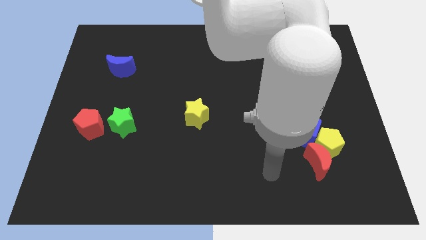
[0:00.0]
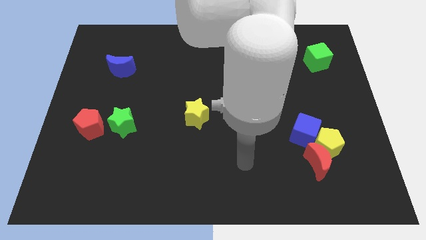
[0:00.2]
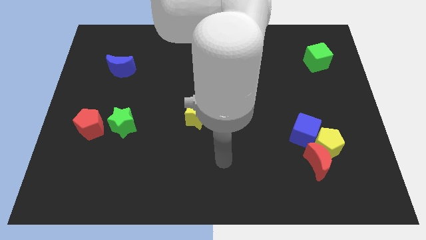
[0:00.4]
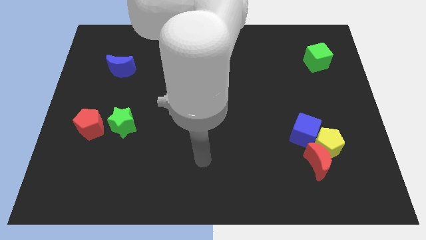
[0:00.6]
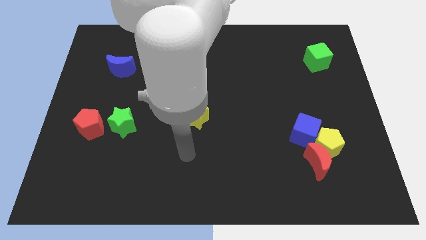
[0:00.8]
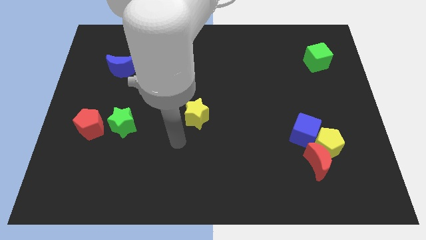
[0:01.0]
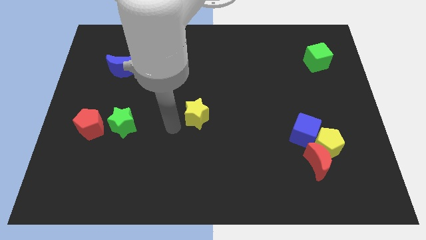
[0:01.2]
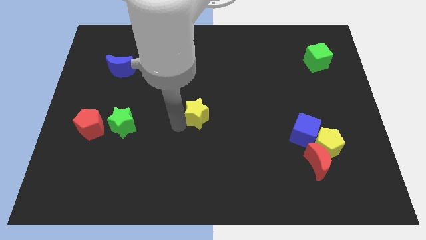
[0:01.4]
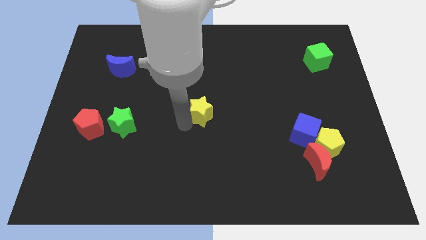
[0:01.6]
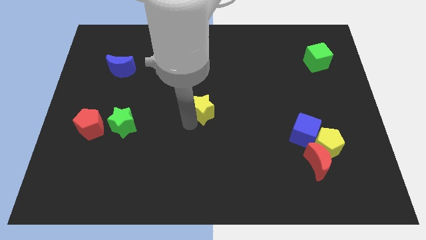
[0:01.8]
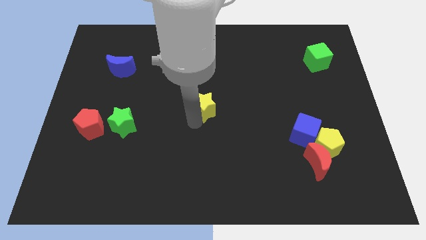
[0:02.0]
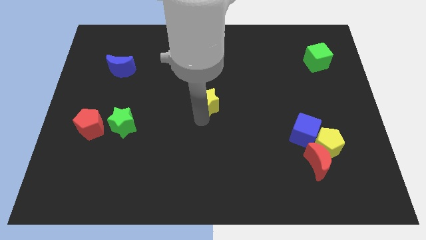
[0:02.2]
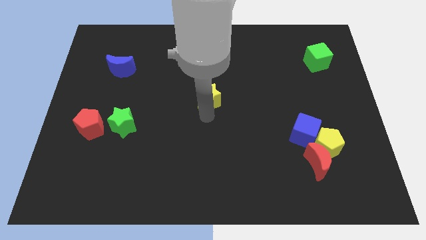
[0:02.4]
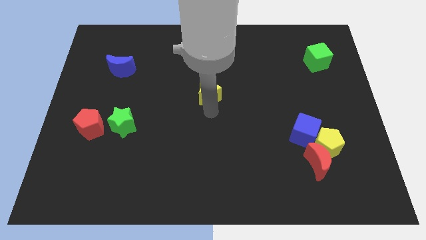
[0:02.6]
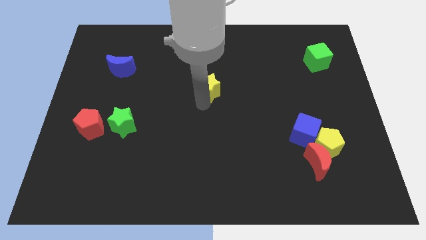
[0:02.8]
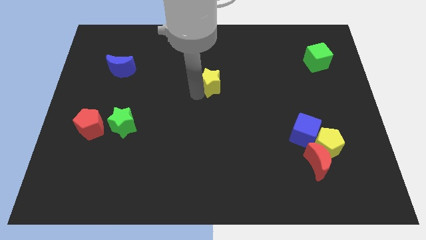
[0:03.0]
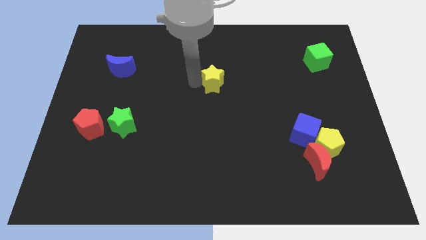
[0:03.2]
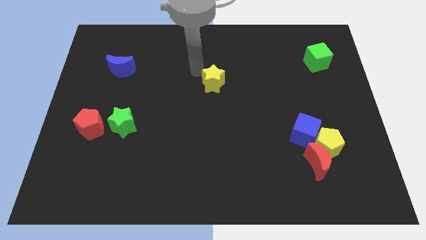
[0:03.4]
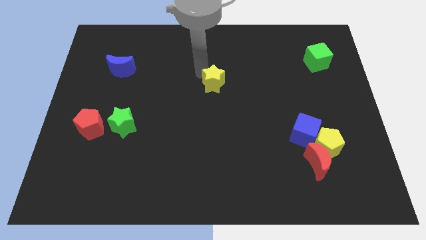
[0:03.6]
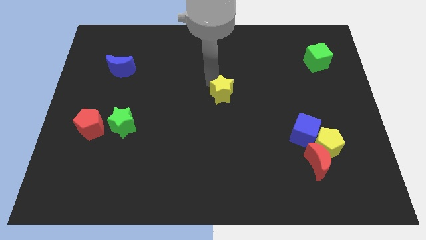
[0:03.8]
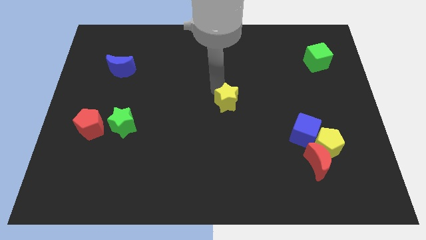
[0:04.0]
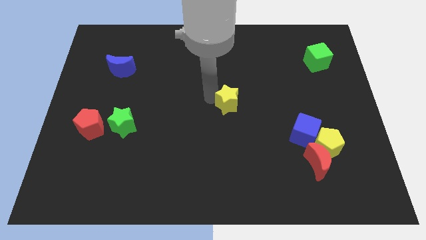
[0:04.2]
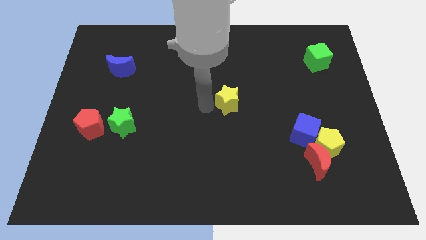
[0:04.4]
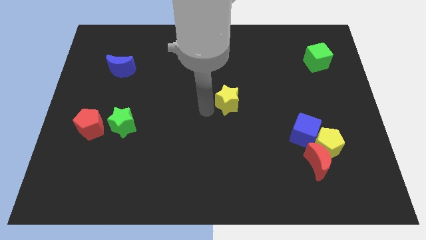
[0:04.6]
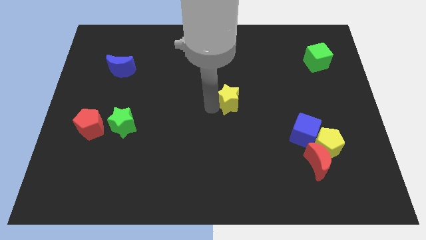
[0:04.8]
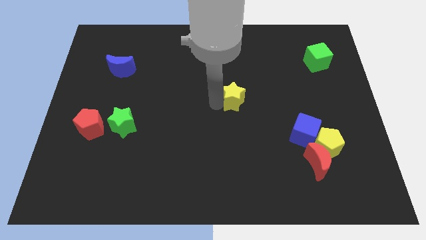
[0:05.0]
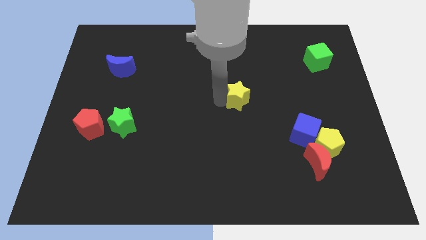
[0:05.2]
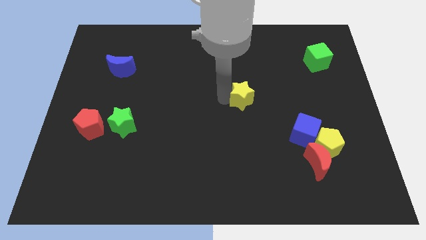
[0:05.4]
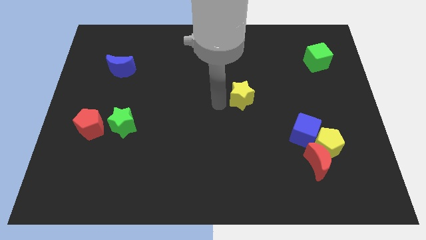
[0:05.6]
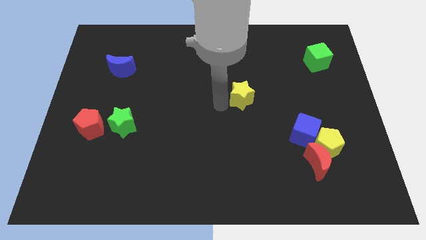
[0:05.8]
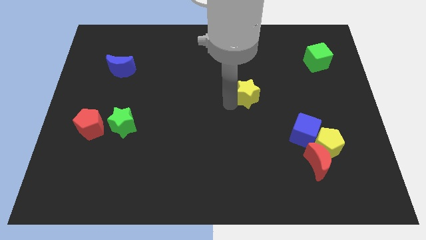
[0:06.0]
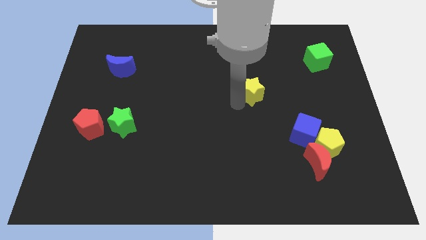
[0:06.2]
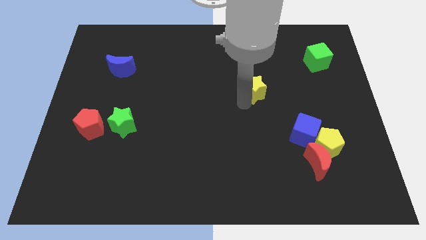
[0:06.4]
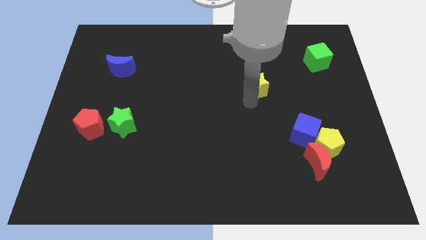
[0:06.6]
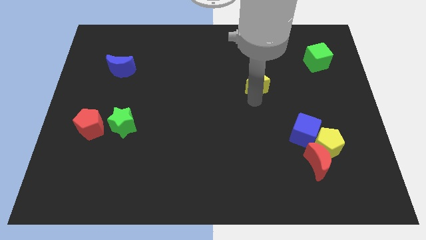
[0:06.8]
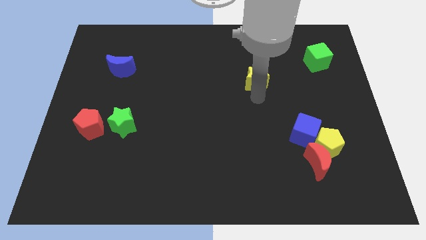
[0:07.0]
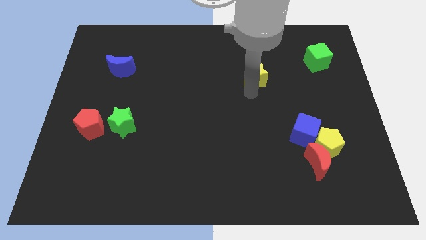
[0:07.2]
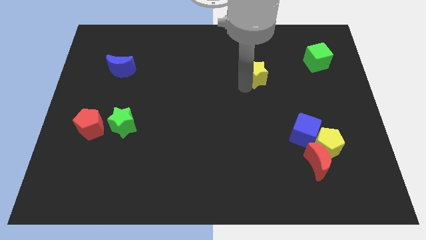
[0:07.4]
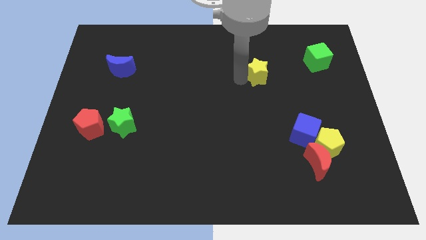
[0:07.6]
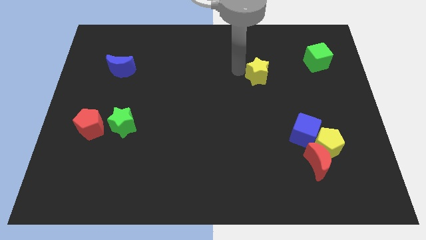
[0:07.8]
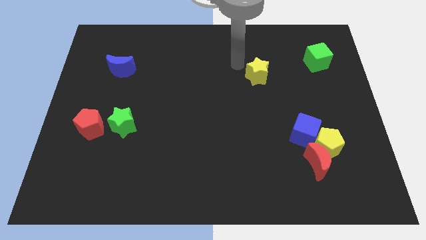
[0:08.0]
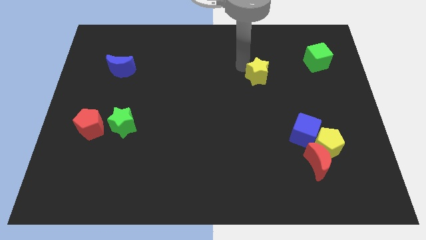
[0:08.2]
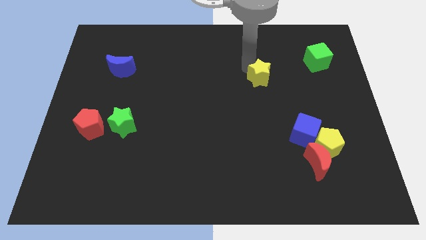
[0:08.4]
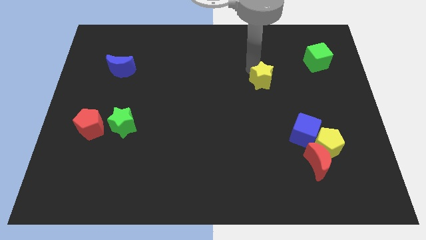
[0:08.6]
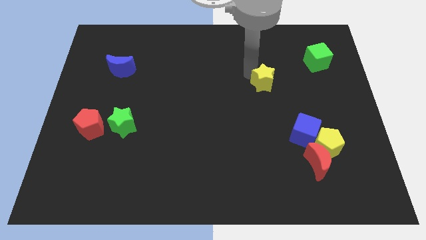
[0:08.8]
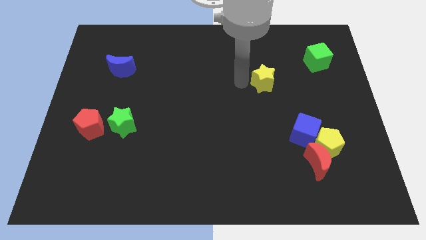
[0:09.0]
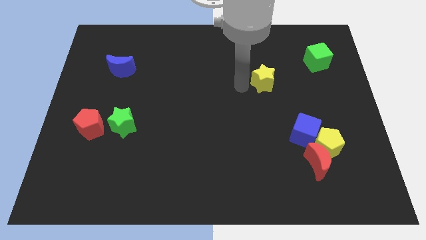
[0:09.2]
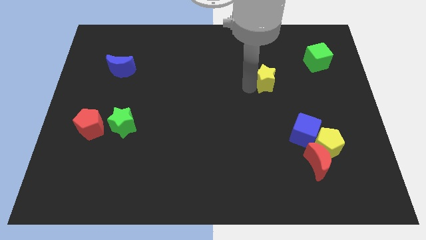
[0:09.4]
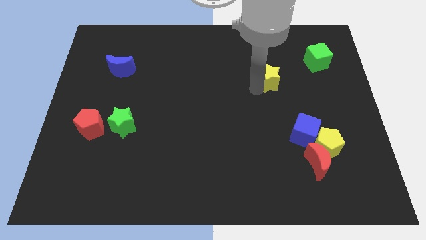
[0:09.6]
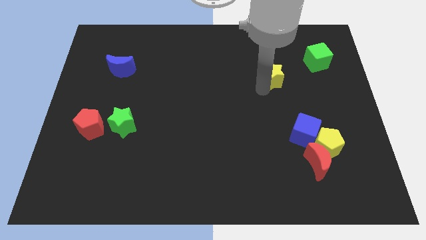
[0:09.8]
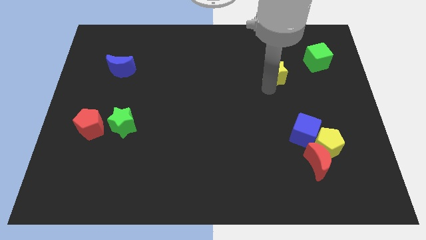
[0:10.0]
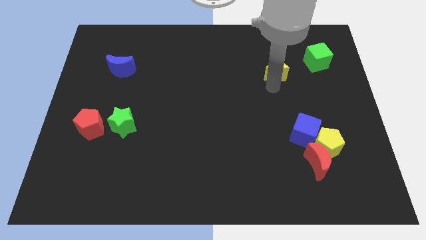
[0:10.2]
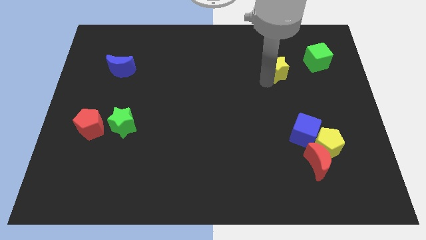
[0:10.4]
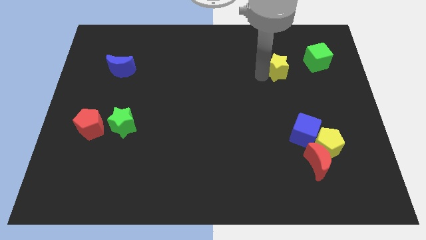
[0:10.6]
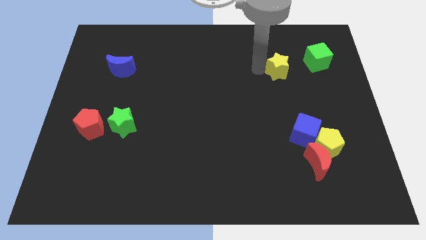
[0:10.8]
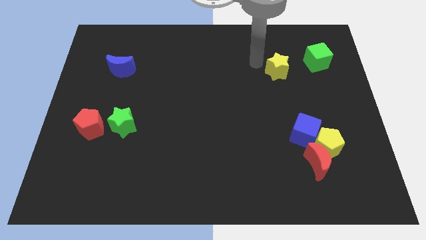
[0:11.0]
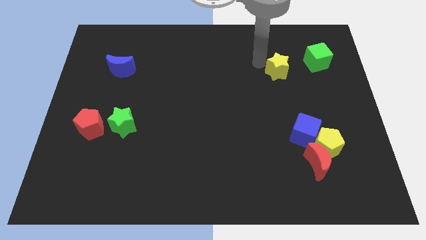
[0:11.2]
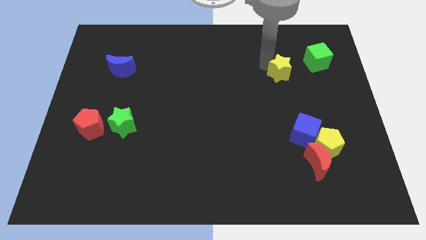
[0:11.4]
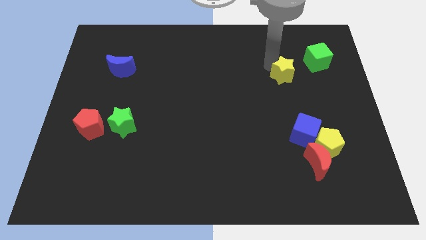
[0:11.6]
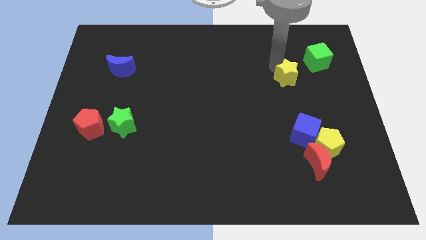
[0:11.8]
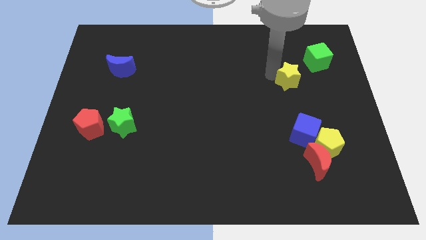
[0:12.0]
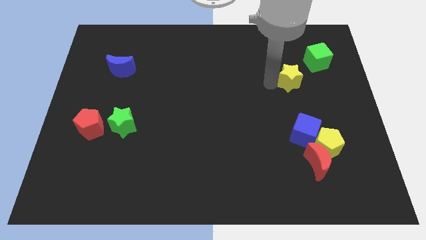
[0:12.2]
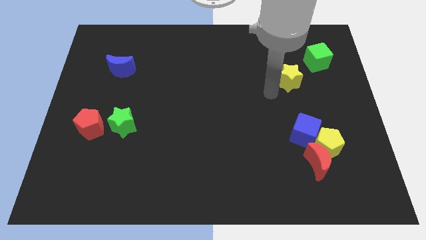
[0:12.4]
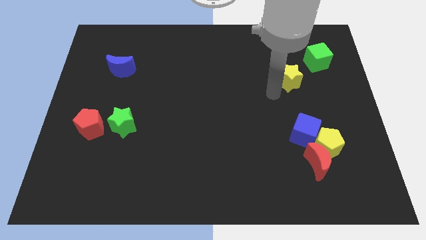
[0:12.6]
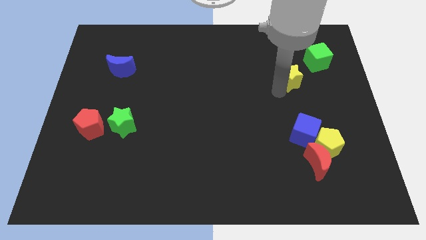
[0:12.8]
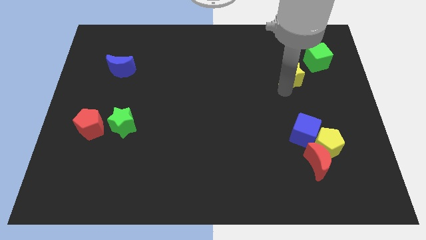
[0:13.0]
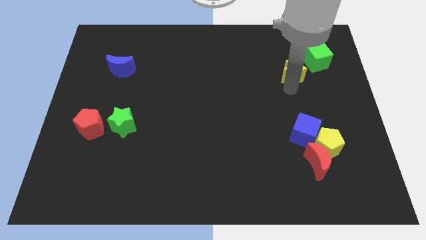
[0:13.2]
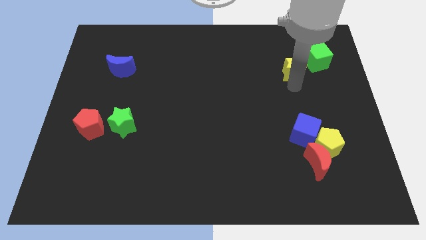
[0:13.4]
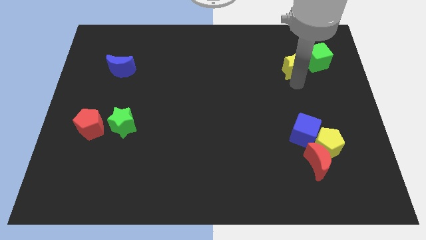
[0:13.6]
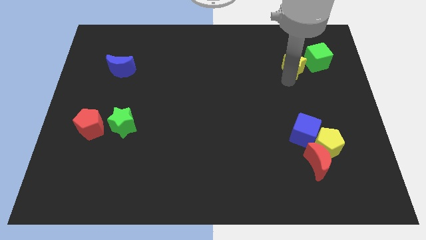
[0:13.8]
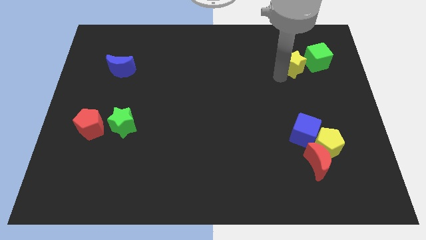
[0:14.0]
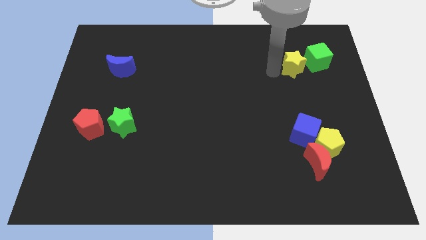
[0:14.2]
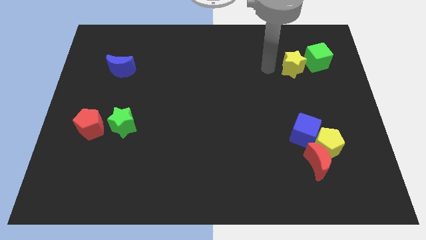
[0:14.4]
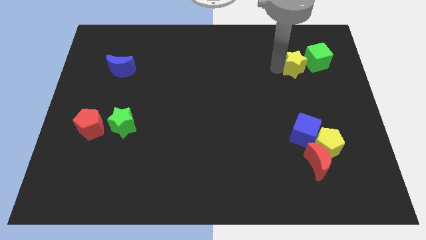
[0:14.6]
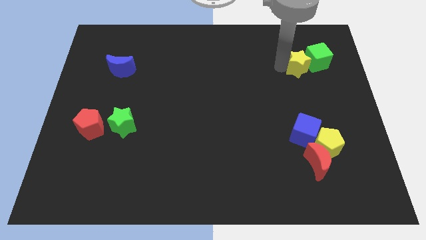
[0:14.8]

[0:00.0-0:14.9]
slide the yellow star close to the green cube
